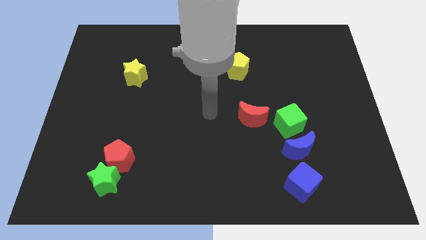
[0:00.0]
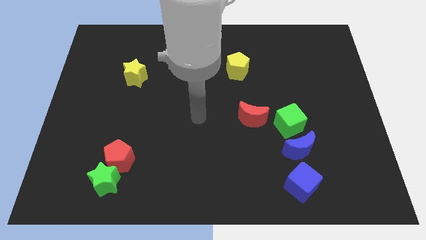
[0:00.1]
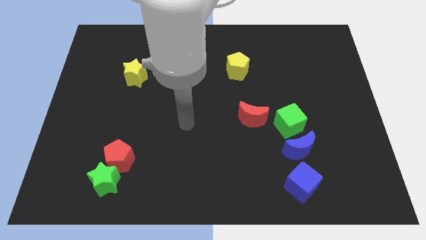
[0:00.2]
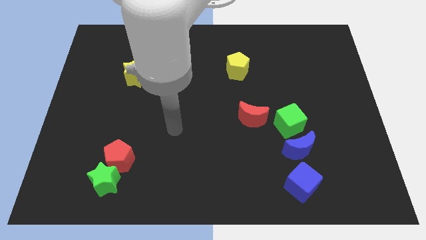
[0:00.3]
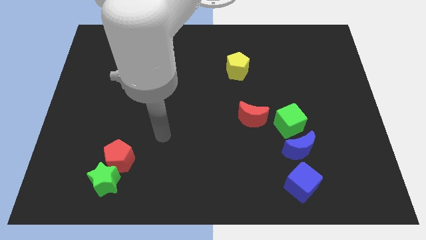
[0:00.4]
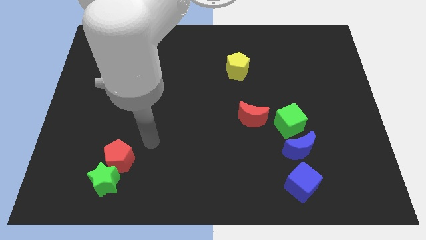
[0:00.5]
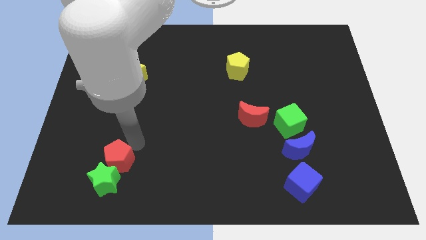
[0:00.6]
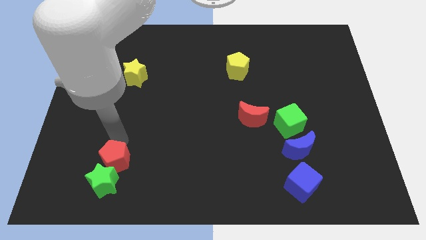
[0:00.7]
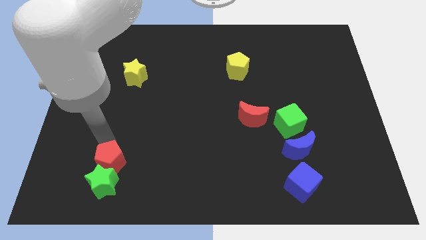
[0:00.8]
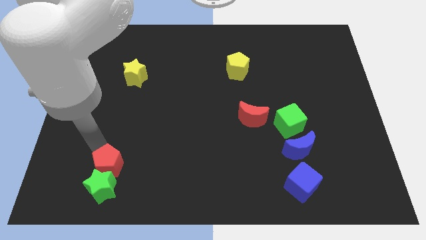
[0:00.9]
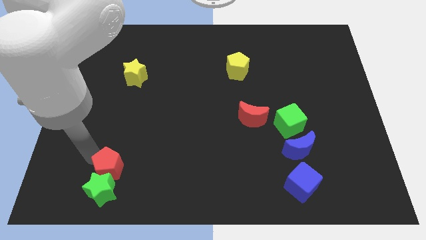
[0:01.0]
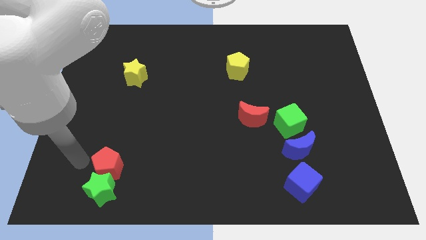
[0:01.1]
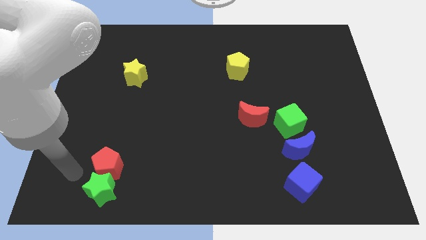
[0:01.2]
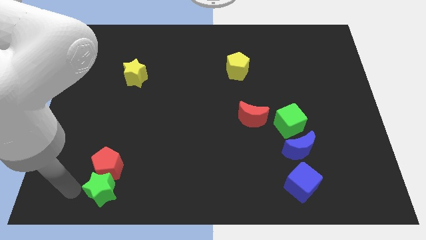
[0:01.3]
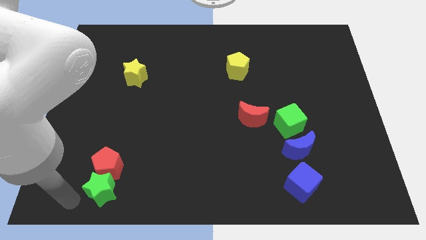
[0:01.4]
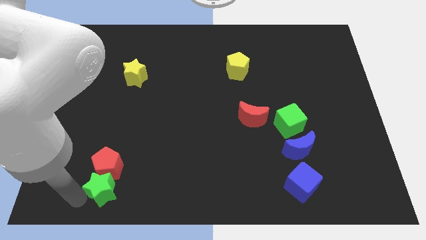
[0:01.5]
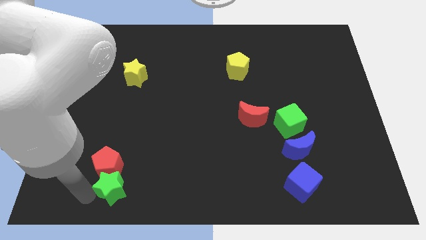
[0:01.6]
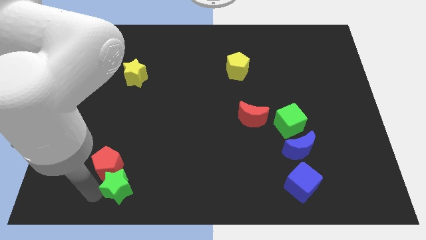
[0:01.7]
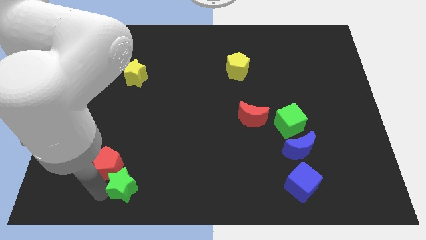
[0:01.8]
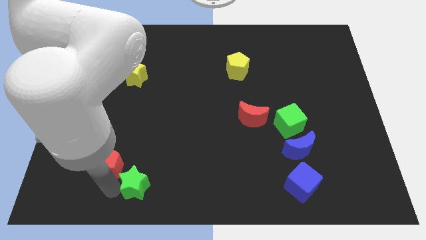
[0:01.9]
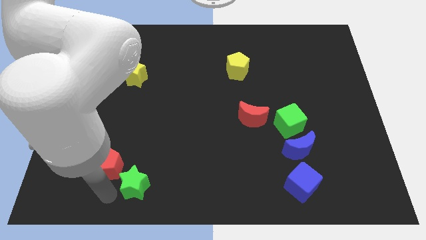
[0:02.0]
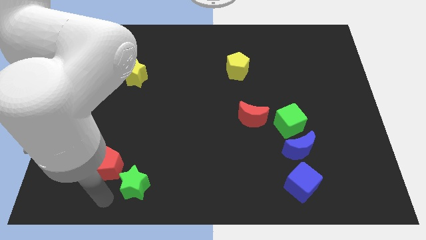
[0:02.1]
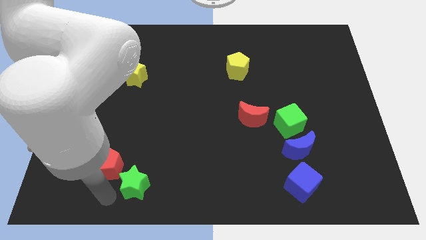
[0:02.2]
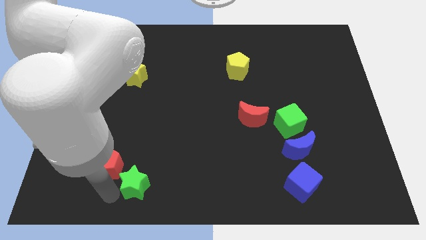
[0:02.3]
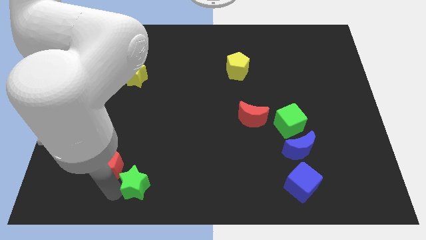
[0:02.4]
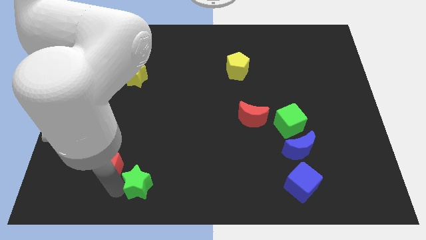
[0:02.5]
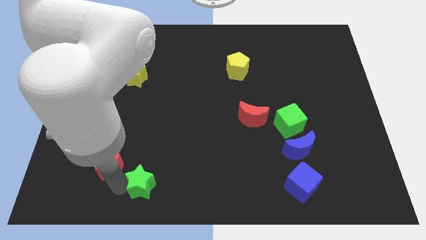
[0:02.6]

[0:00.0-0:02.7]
push the green star somewhat to the right

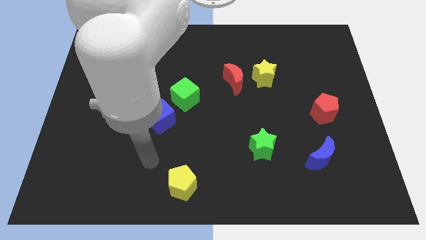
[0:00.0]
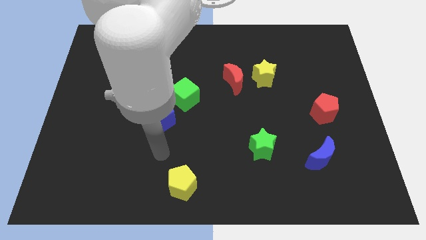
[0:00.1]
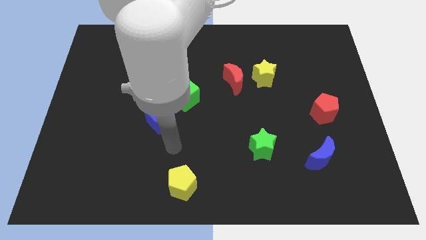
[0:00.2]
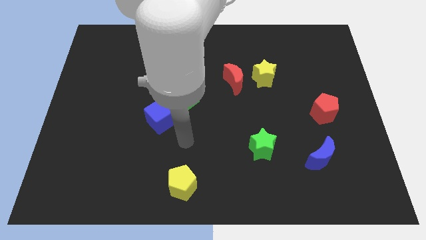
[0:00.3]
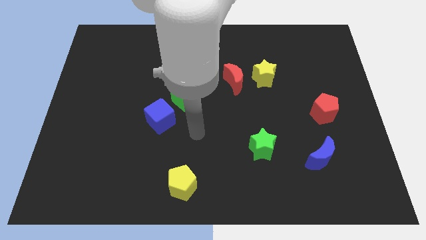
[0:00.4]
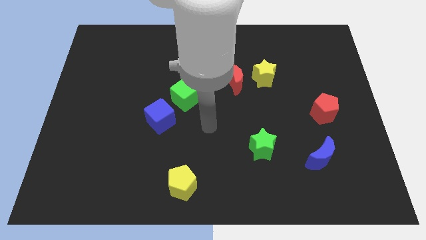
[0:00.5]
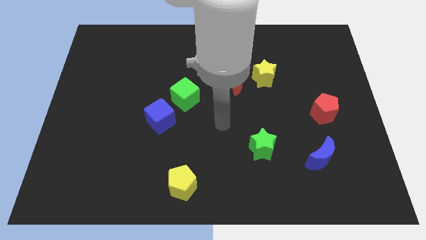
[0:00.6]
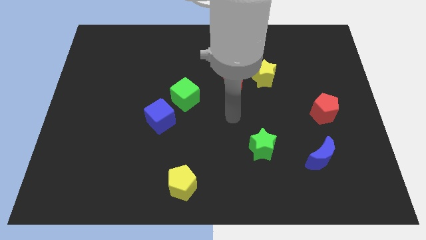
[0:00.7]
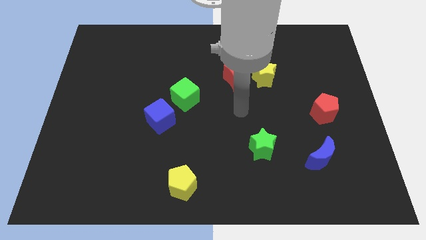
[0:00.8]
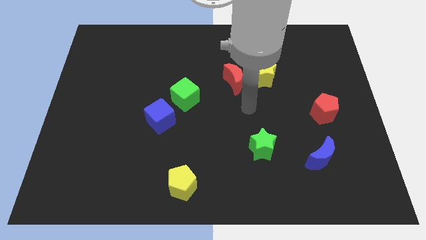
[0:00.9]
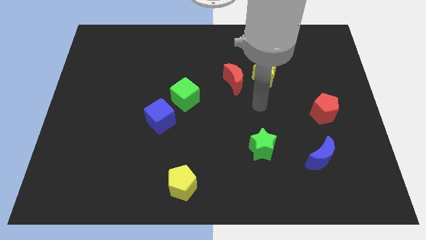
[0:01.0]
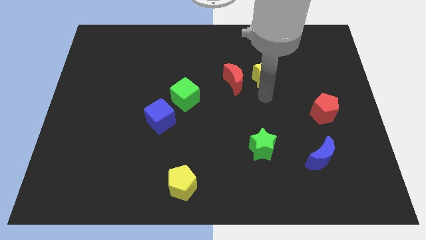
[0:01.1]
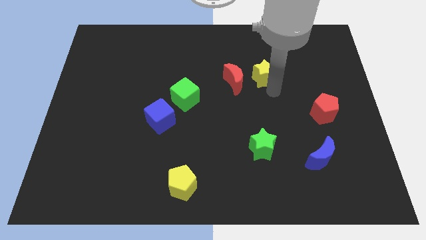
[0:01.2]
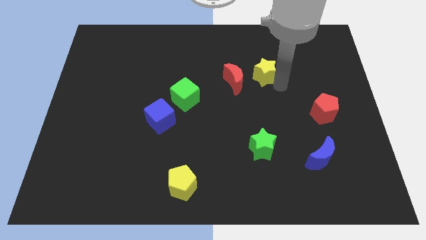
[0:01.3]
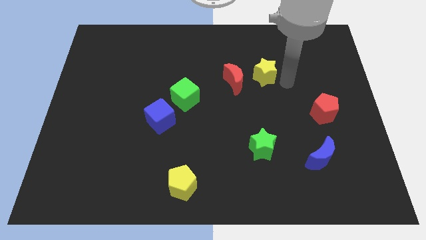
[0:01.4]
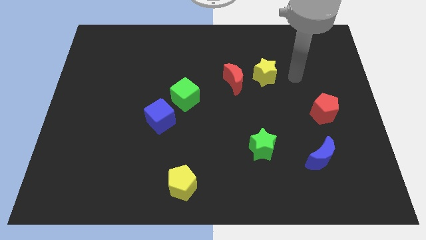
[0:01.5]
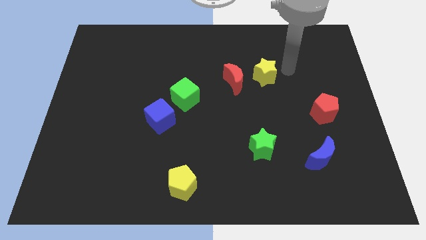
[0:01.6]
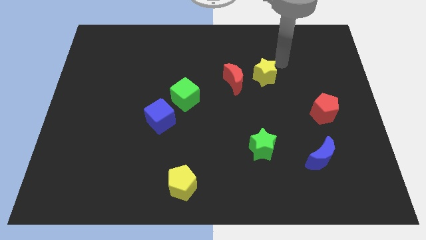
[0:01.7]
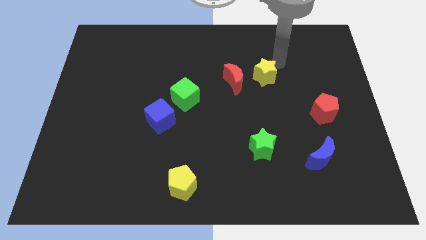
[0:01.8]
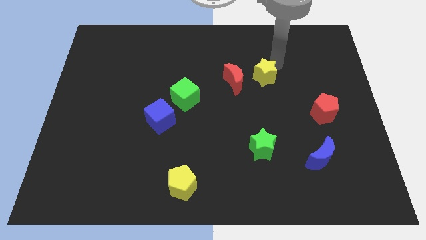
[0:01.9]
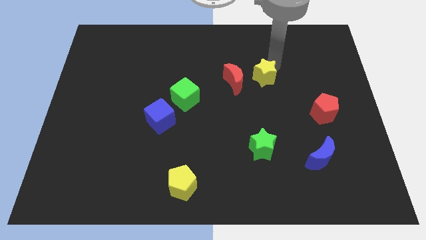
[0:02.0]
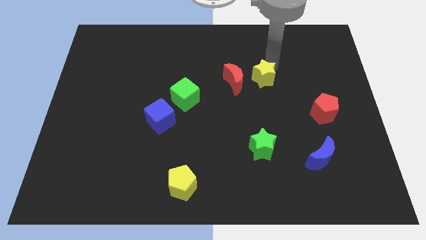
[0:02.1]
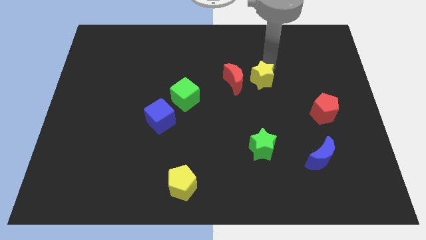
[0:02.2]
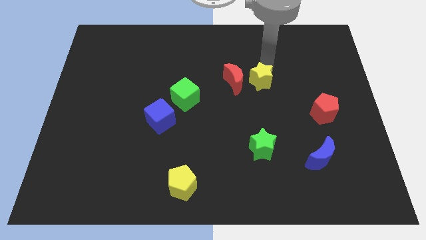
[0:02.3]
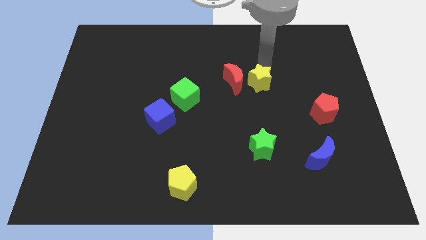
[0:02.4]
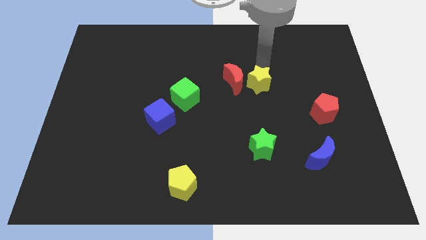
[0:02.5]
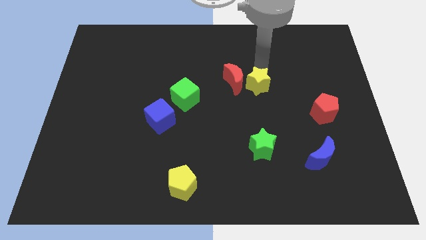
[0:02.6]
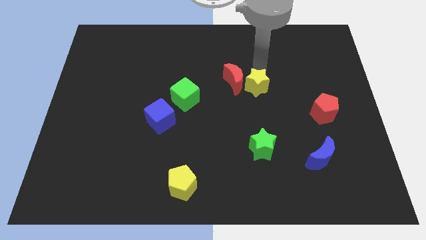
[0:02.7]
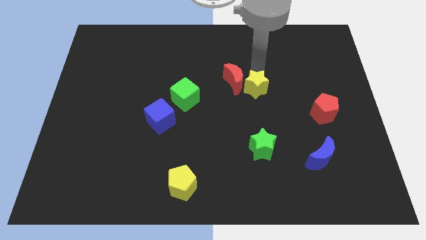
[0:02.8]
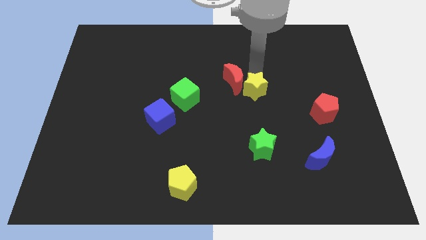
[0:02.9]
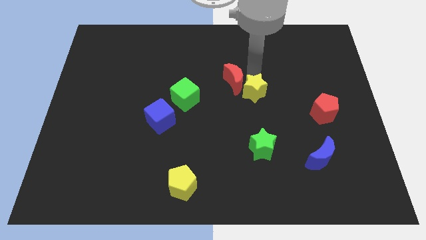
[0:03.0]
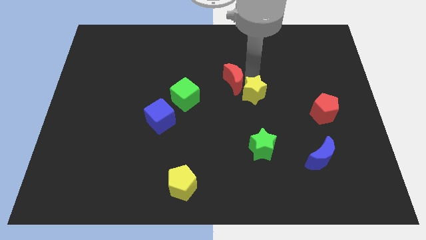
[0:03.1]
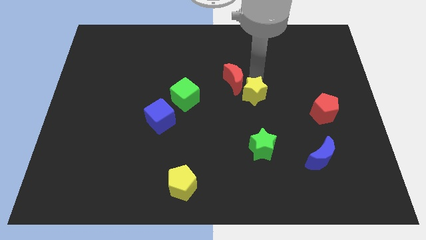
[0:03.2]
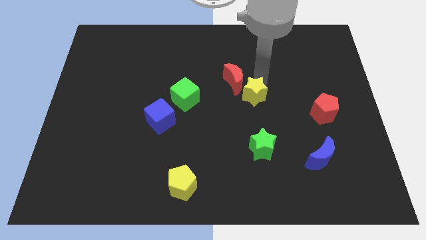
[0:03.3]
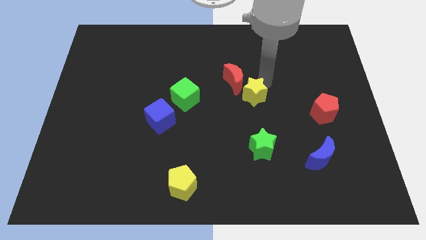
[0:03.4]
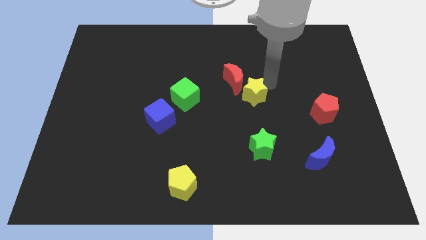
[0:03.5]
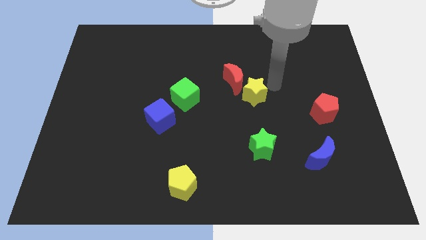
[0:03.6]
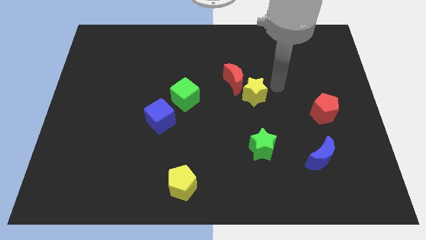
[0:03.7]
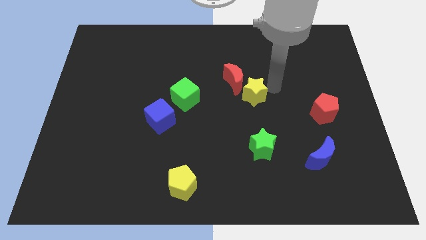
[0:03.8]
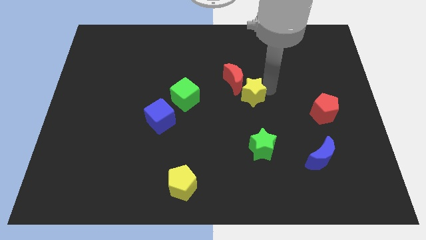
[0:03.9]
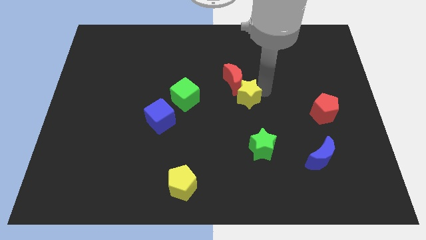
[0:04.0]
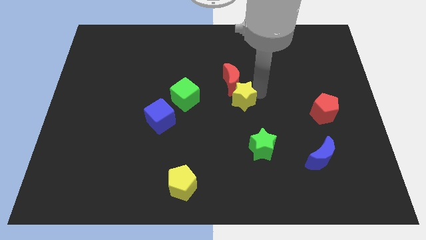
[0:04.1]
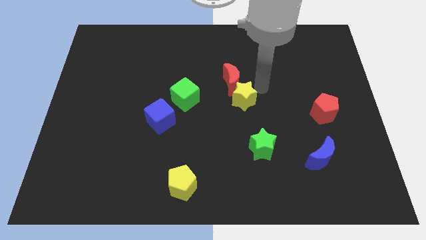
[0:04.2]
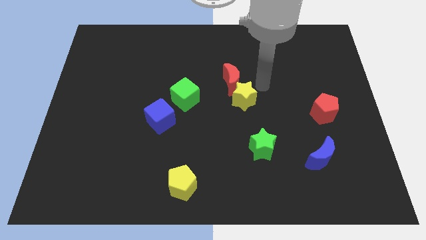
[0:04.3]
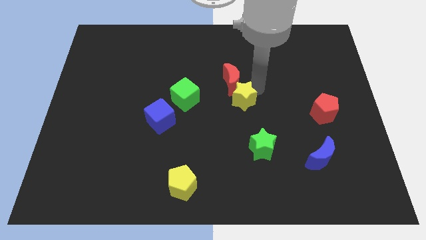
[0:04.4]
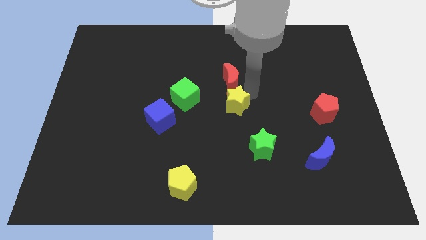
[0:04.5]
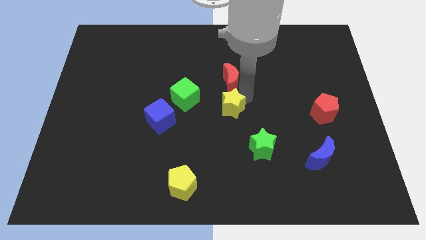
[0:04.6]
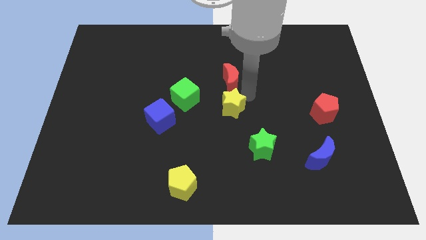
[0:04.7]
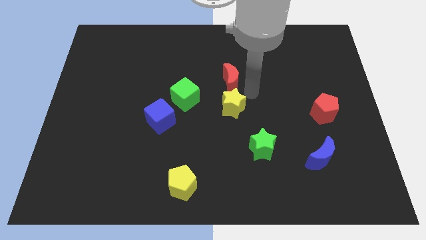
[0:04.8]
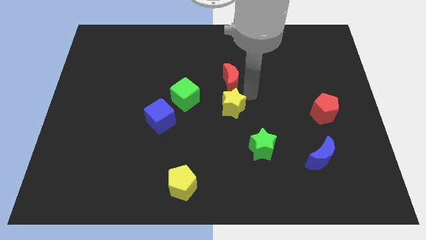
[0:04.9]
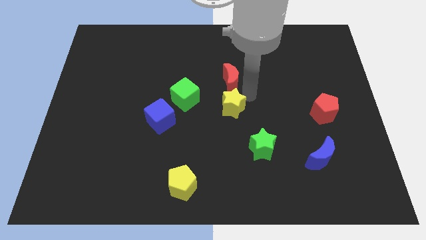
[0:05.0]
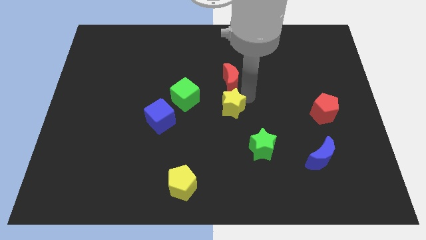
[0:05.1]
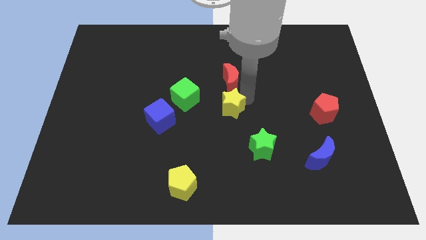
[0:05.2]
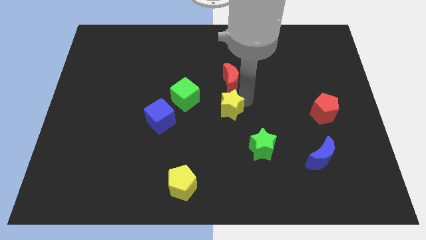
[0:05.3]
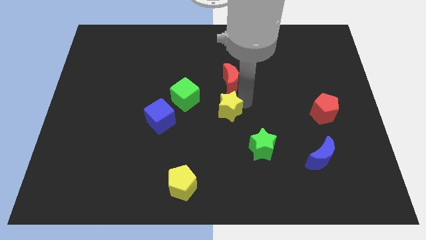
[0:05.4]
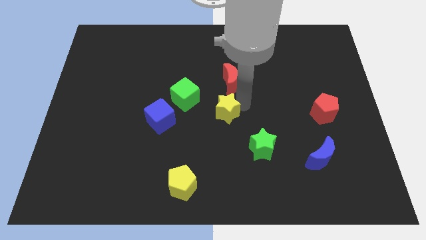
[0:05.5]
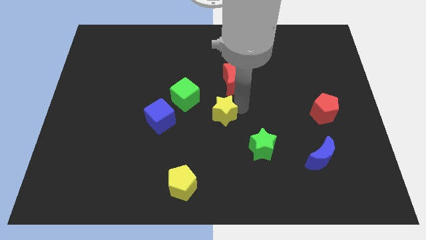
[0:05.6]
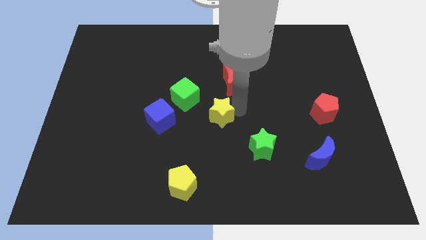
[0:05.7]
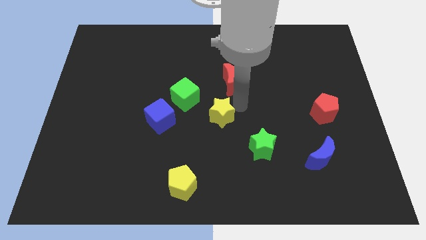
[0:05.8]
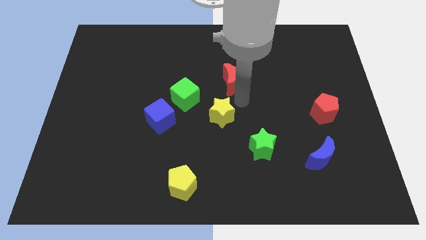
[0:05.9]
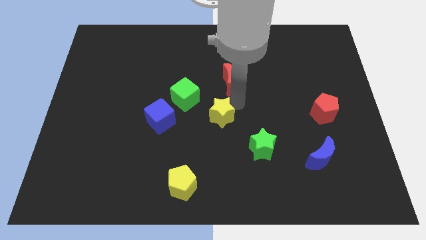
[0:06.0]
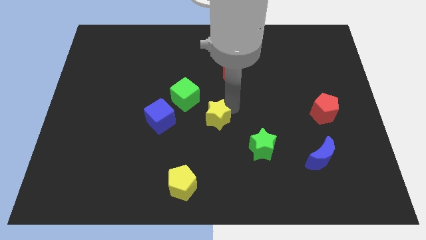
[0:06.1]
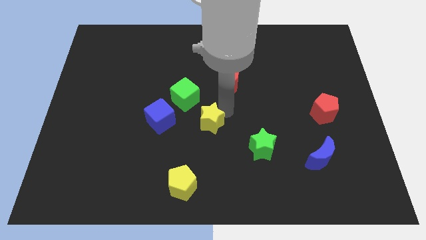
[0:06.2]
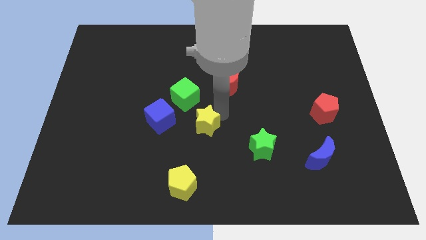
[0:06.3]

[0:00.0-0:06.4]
move the yellow star down and left diagonally
